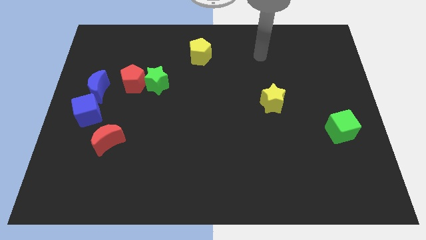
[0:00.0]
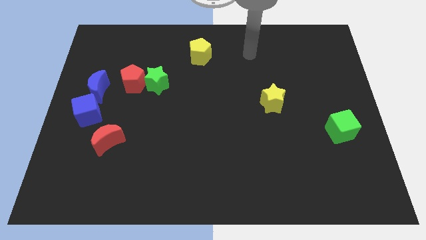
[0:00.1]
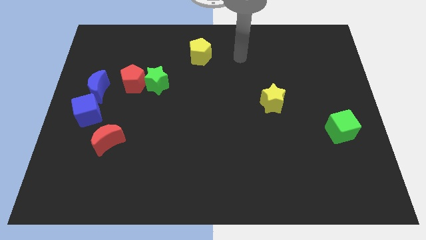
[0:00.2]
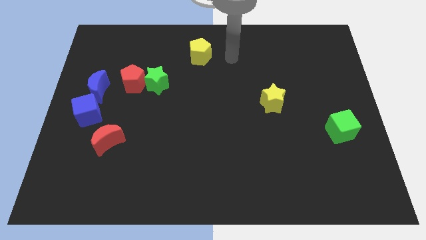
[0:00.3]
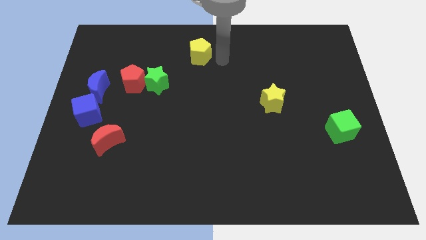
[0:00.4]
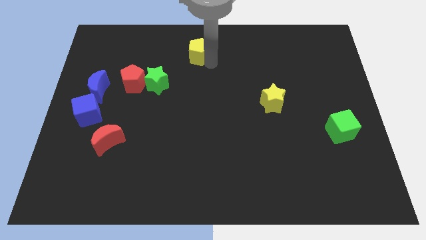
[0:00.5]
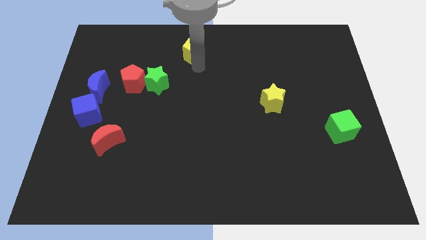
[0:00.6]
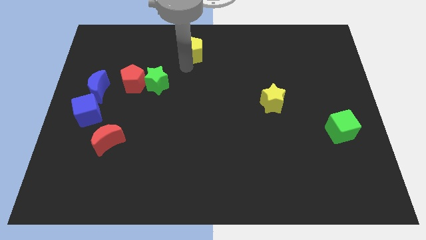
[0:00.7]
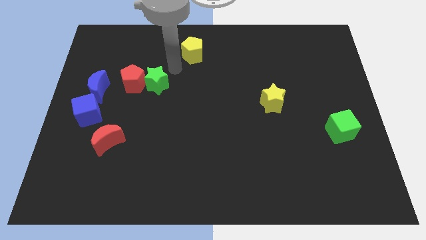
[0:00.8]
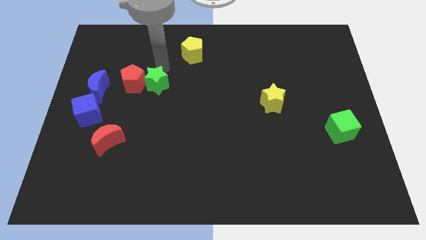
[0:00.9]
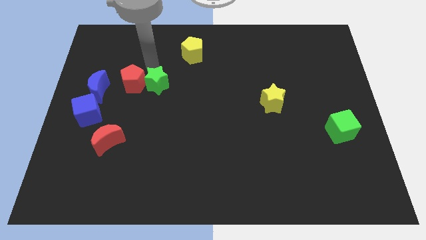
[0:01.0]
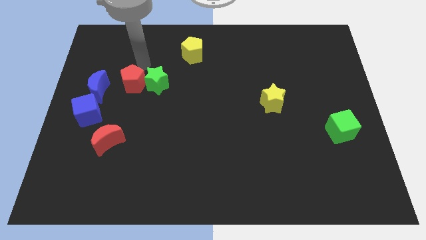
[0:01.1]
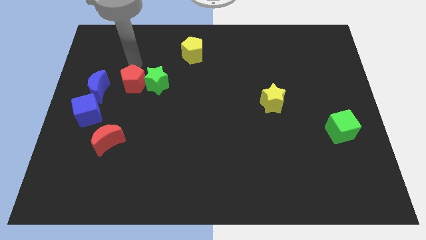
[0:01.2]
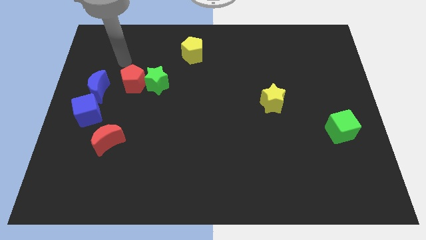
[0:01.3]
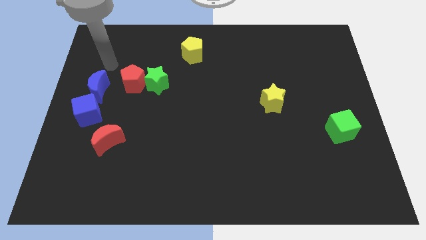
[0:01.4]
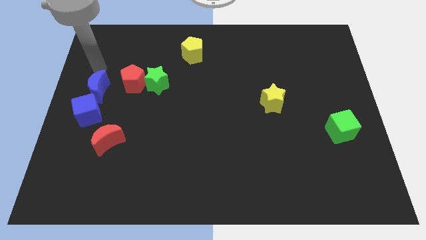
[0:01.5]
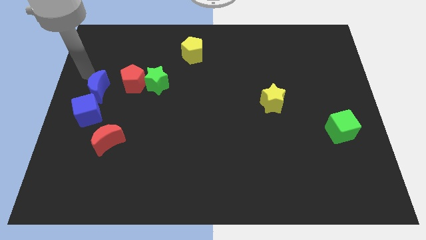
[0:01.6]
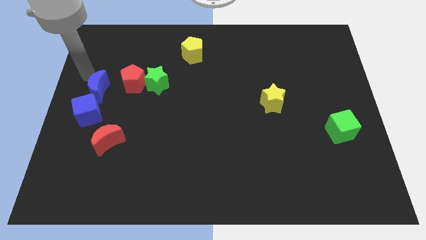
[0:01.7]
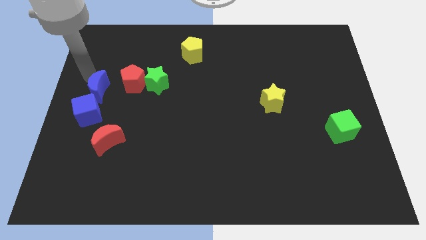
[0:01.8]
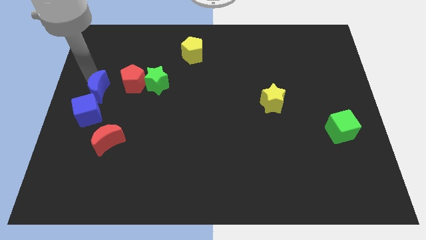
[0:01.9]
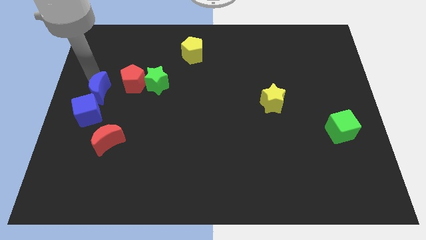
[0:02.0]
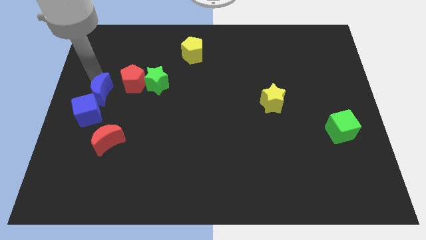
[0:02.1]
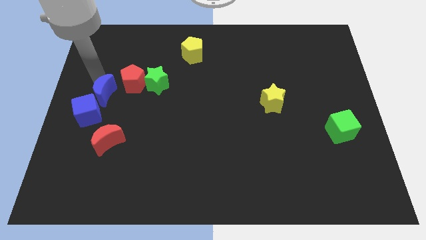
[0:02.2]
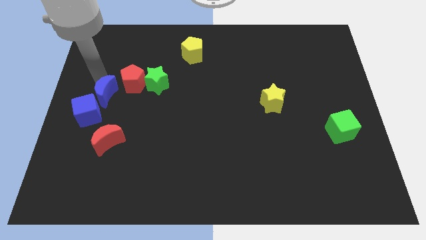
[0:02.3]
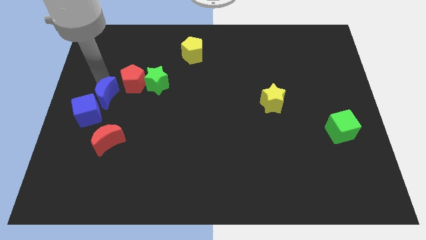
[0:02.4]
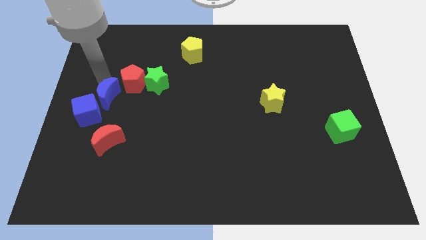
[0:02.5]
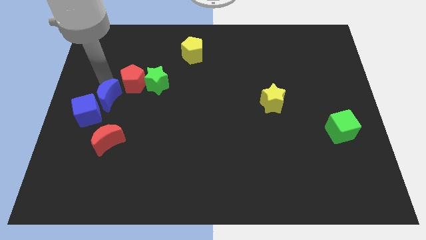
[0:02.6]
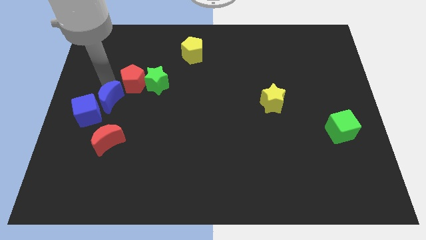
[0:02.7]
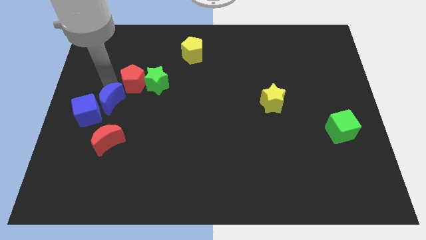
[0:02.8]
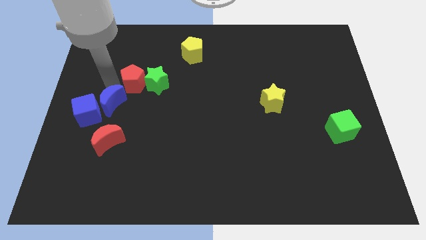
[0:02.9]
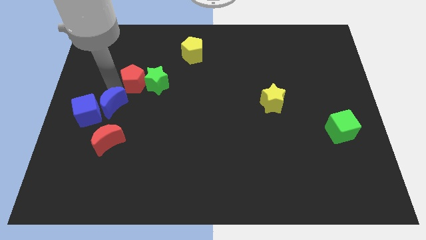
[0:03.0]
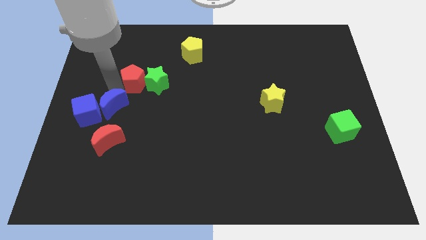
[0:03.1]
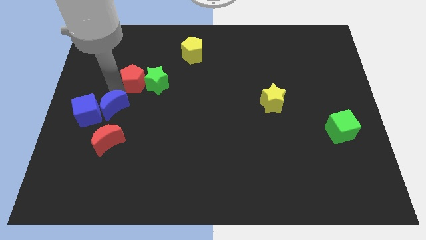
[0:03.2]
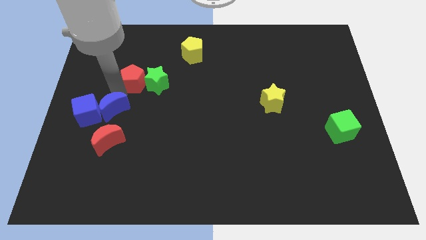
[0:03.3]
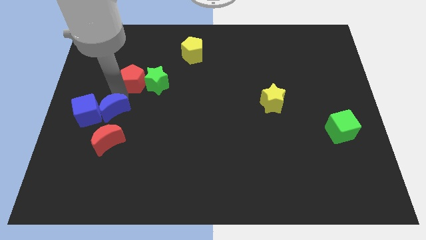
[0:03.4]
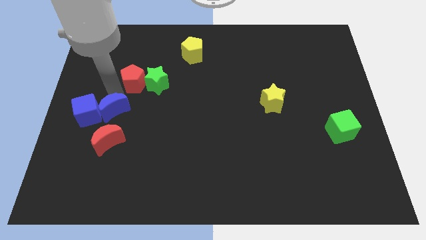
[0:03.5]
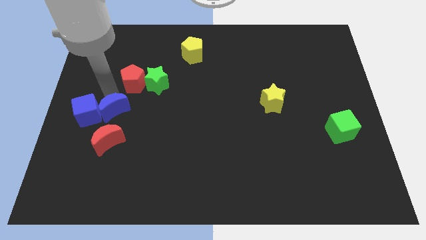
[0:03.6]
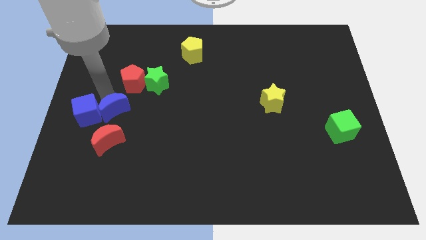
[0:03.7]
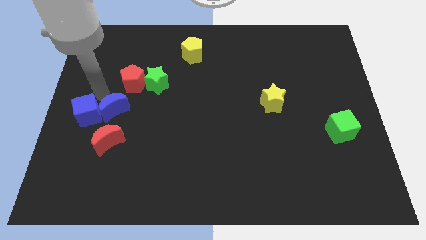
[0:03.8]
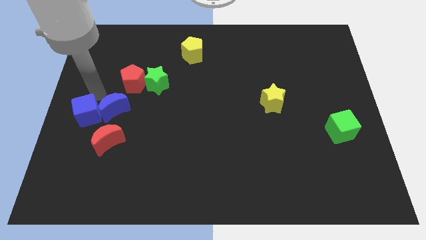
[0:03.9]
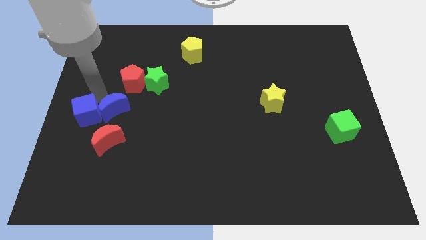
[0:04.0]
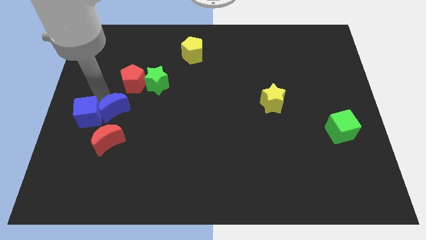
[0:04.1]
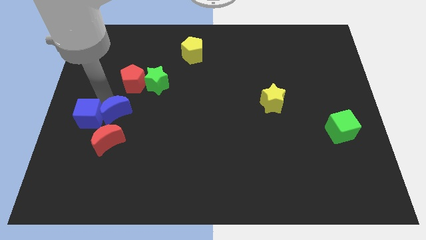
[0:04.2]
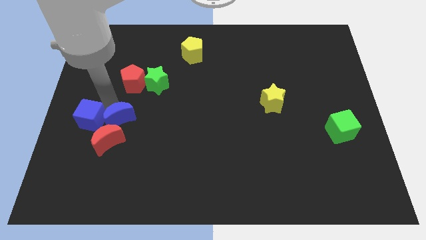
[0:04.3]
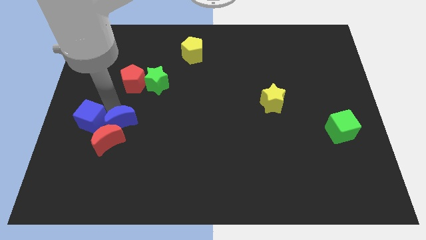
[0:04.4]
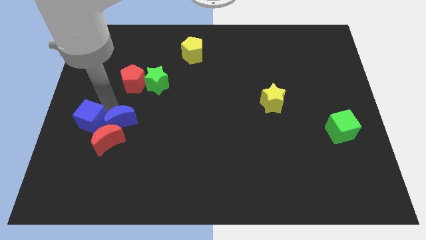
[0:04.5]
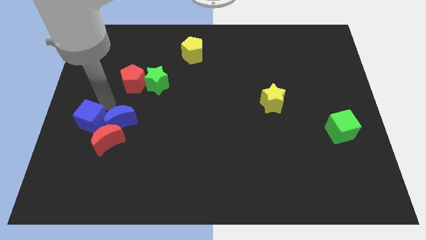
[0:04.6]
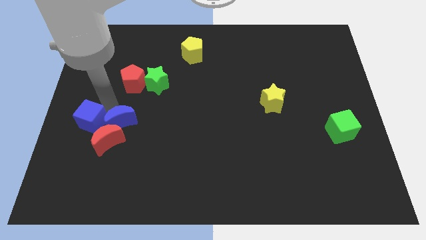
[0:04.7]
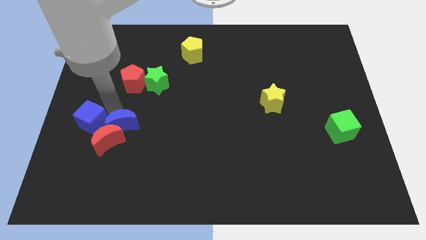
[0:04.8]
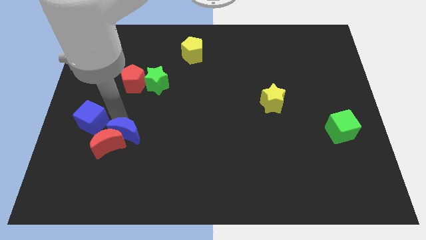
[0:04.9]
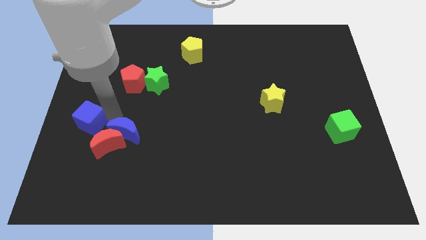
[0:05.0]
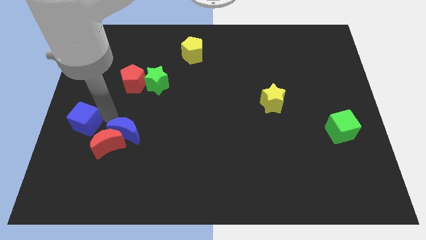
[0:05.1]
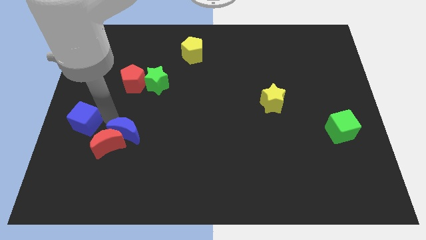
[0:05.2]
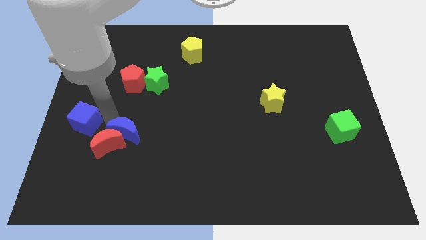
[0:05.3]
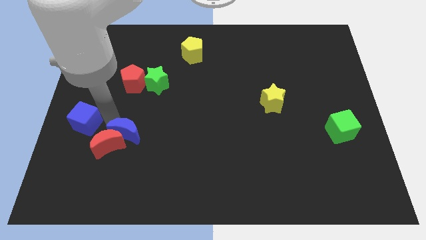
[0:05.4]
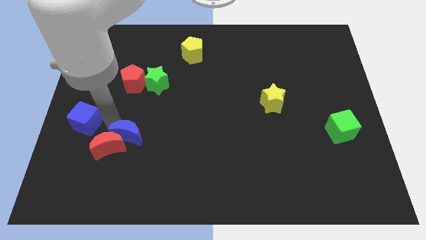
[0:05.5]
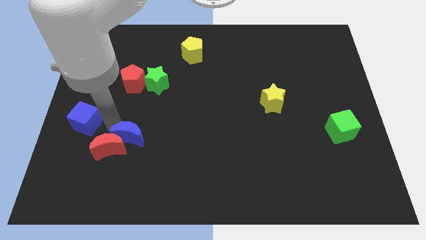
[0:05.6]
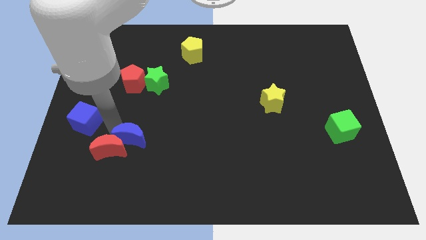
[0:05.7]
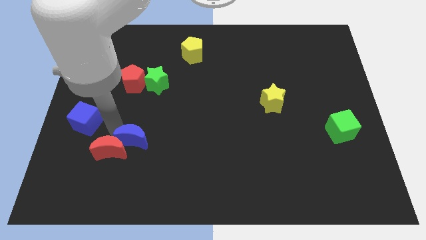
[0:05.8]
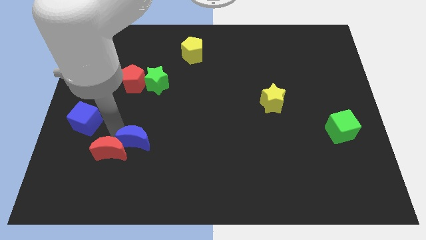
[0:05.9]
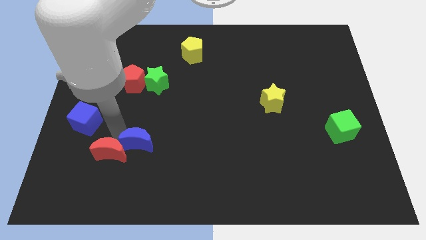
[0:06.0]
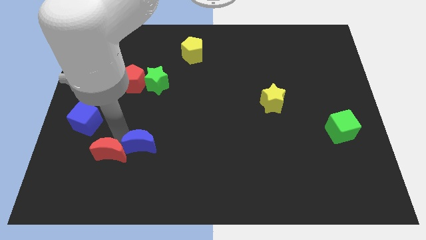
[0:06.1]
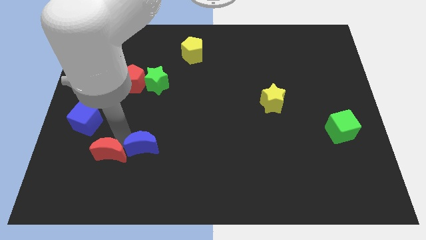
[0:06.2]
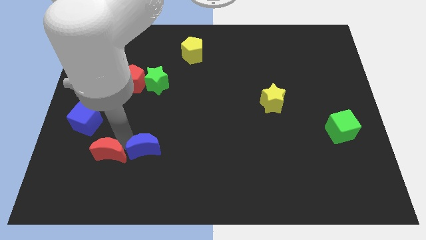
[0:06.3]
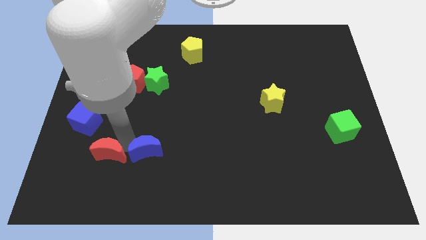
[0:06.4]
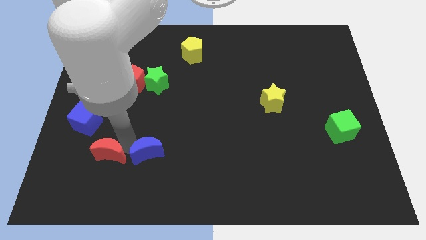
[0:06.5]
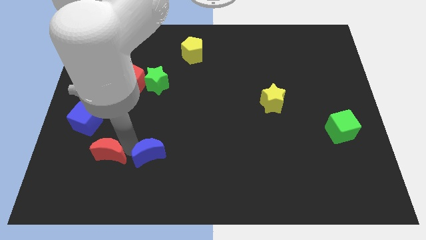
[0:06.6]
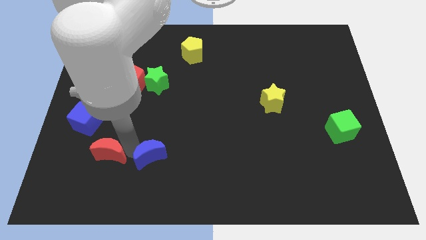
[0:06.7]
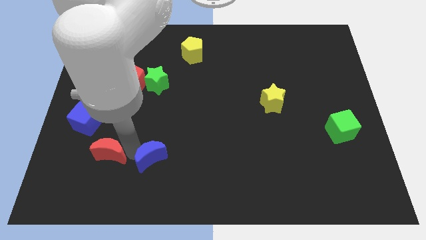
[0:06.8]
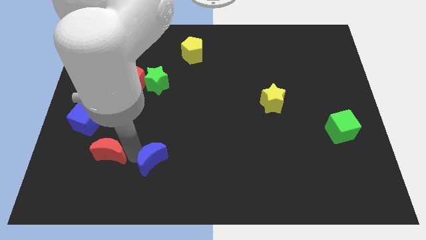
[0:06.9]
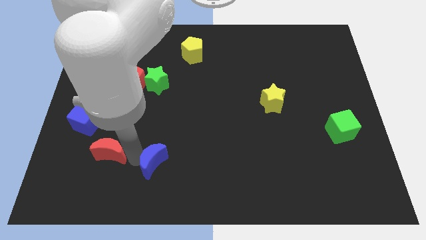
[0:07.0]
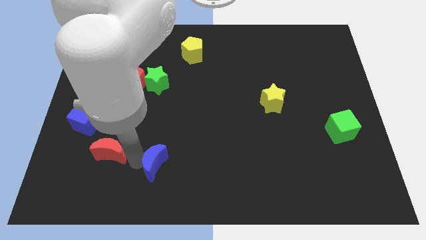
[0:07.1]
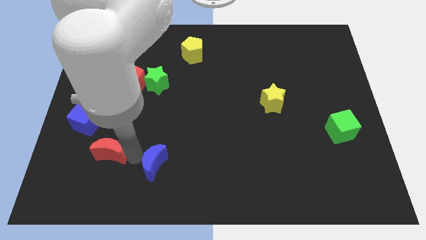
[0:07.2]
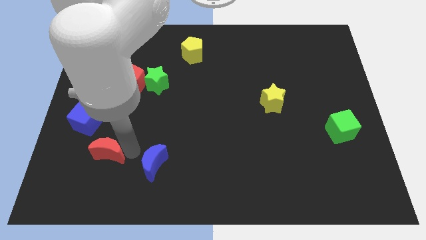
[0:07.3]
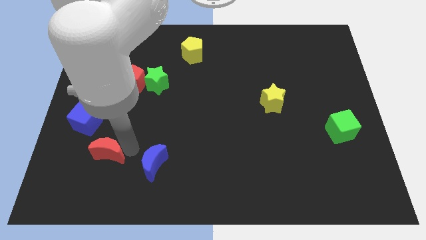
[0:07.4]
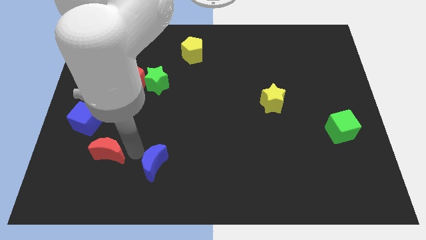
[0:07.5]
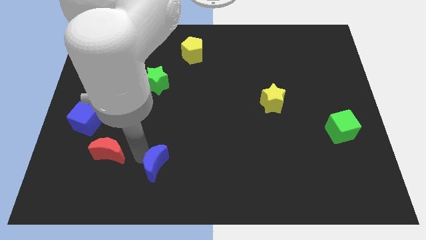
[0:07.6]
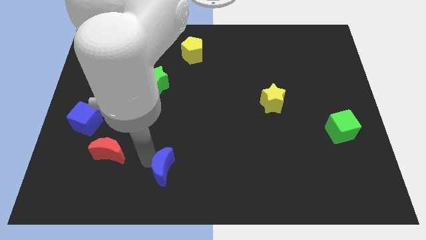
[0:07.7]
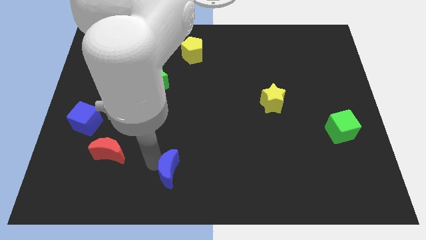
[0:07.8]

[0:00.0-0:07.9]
put the blue moon to the bottom side
